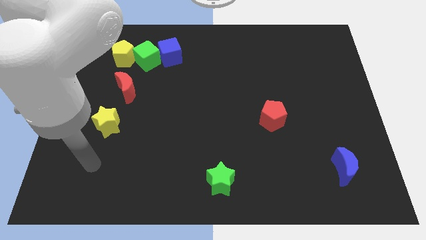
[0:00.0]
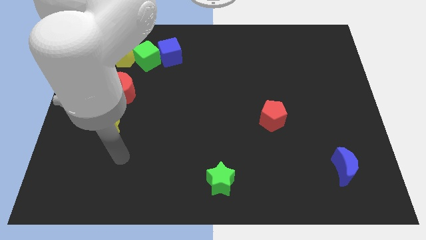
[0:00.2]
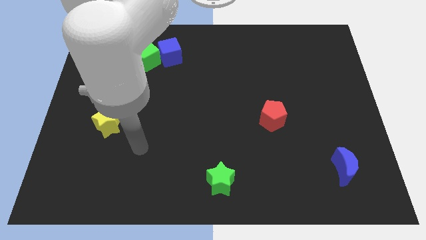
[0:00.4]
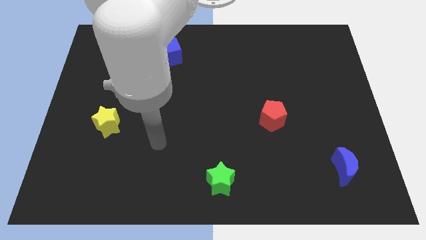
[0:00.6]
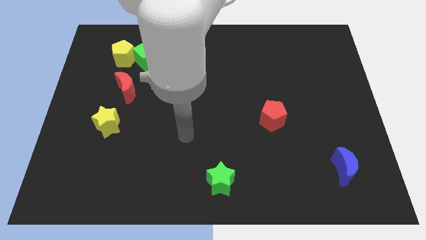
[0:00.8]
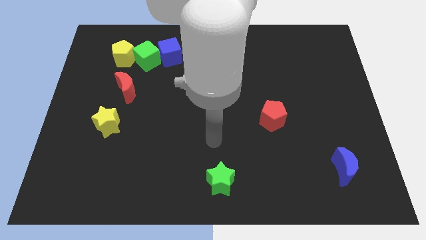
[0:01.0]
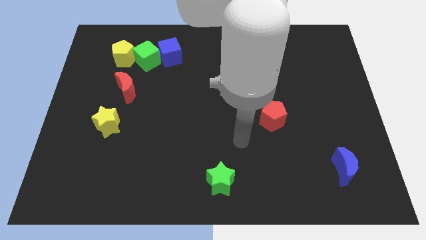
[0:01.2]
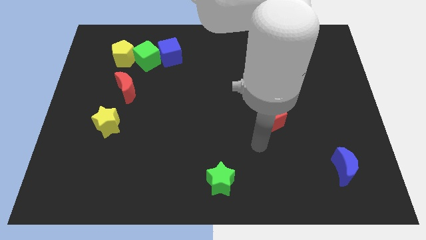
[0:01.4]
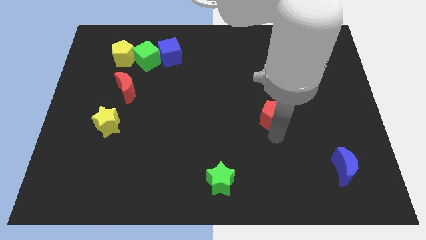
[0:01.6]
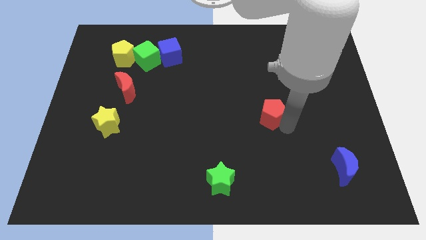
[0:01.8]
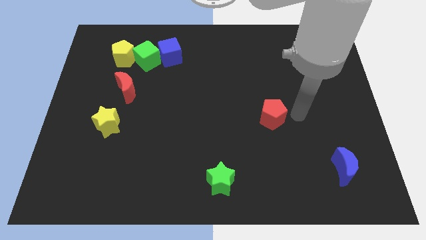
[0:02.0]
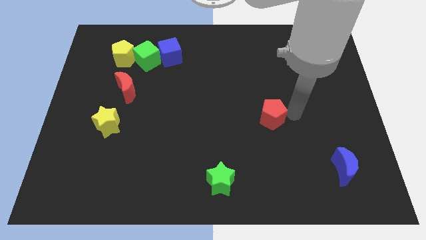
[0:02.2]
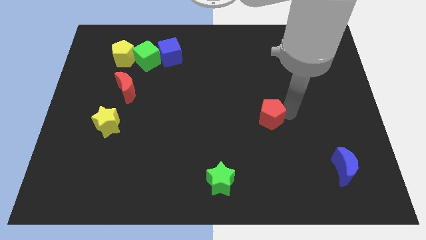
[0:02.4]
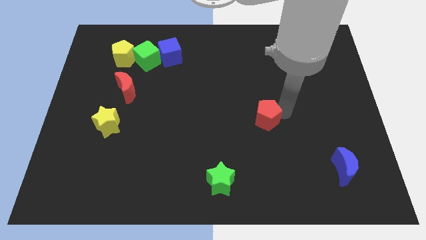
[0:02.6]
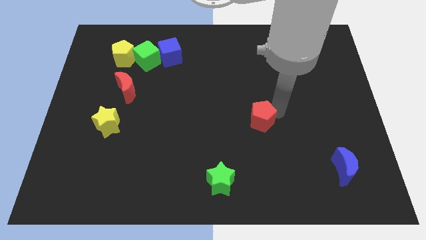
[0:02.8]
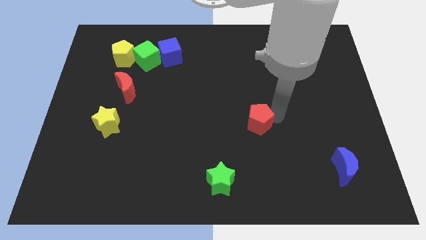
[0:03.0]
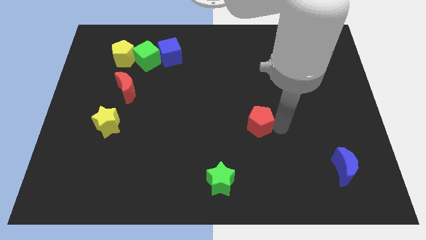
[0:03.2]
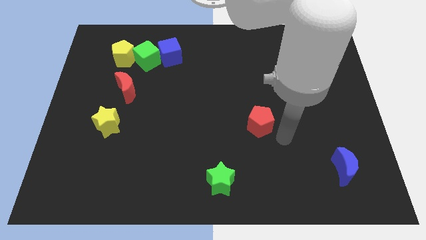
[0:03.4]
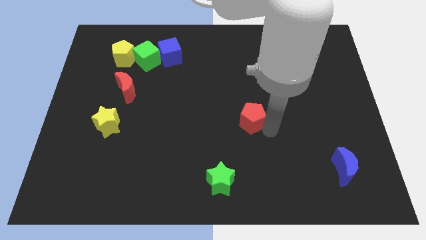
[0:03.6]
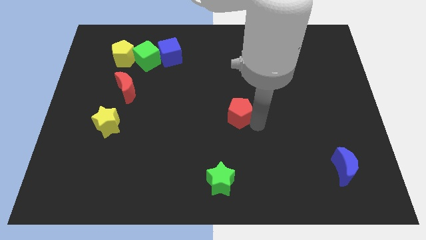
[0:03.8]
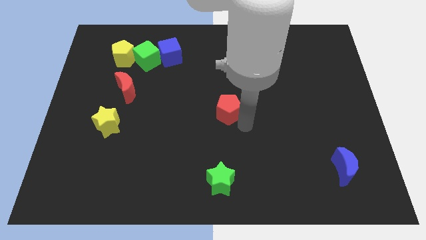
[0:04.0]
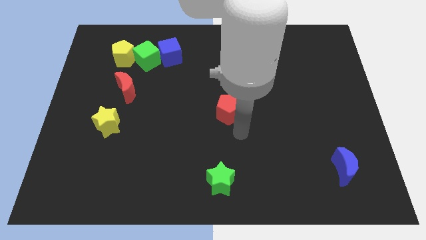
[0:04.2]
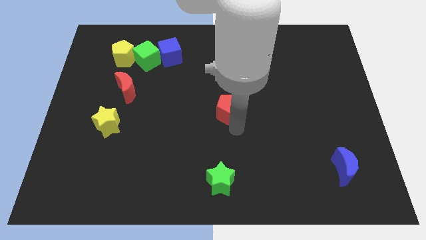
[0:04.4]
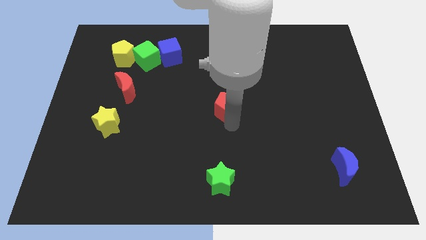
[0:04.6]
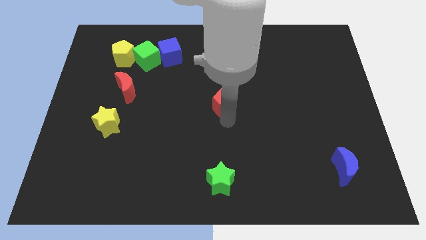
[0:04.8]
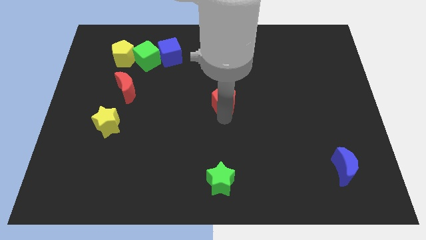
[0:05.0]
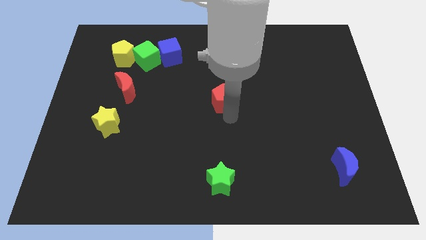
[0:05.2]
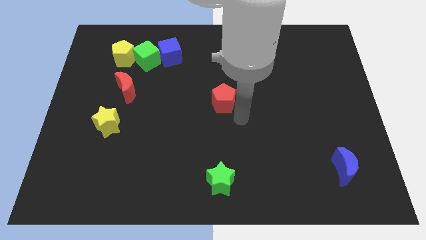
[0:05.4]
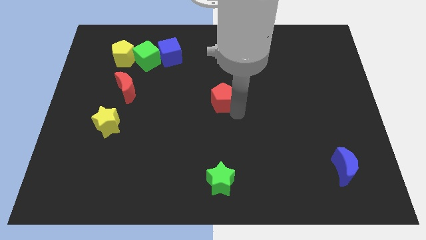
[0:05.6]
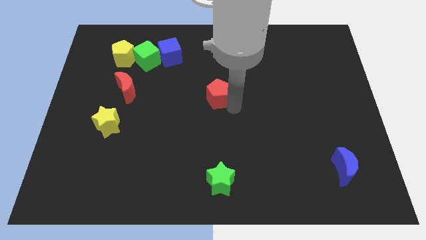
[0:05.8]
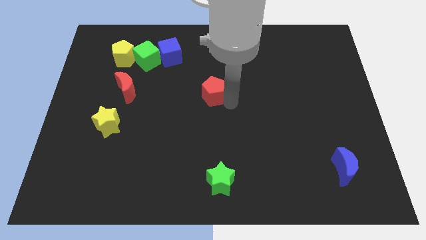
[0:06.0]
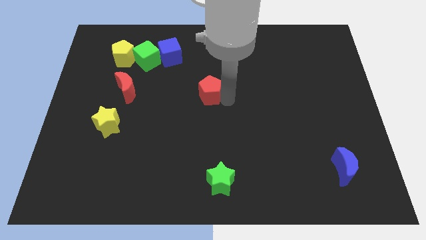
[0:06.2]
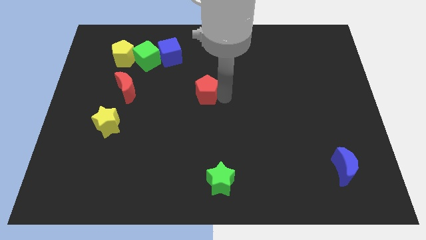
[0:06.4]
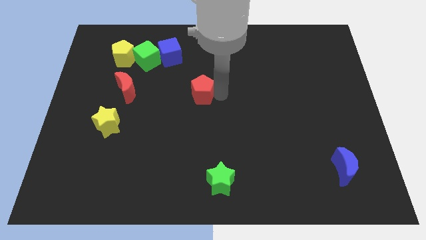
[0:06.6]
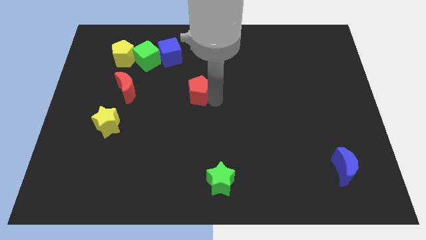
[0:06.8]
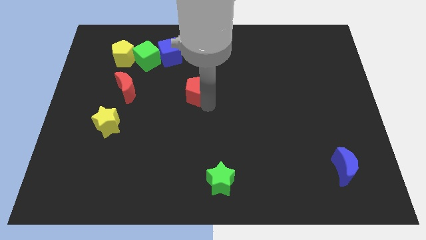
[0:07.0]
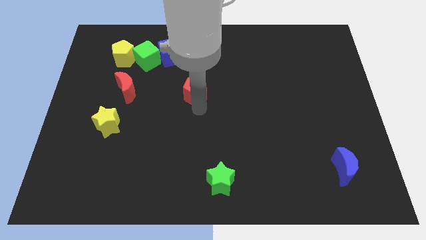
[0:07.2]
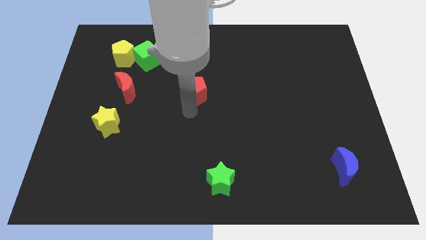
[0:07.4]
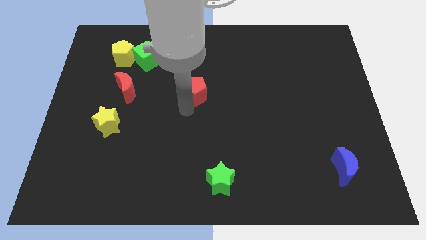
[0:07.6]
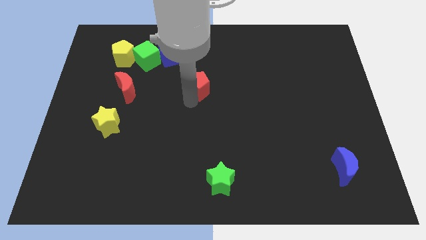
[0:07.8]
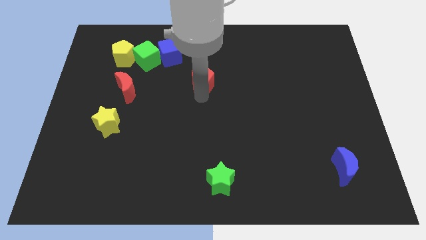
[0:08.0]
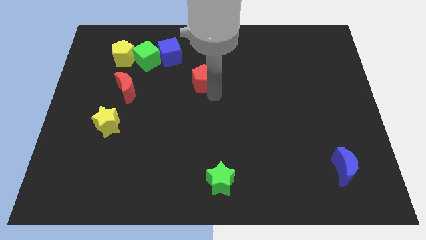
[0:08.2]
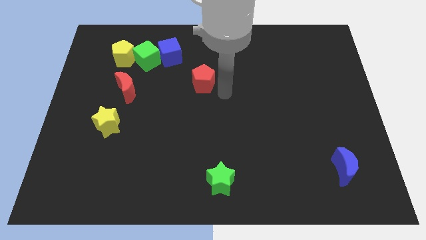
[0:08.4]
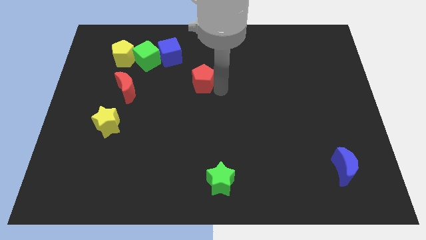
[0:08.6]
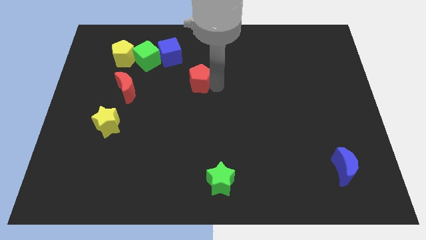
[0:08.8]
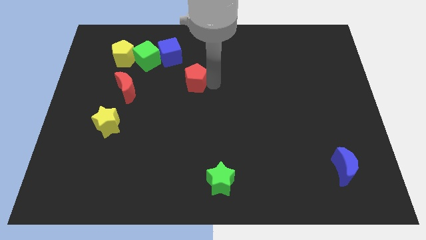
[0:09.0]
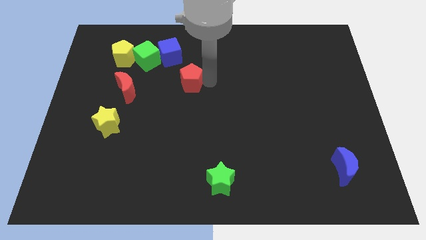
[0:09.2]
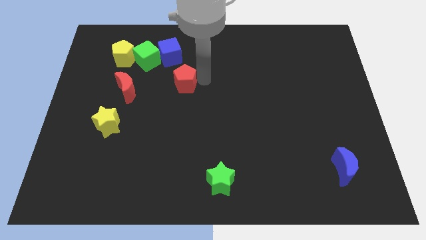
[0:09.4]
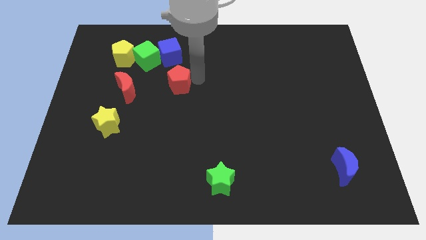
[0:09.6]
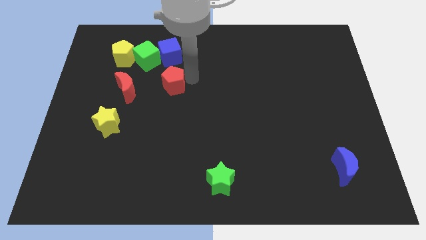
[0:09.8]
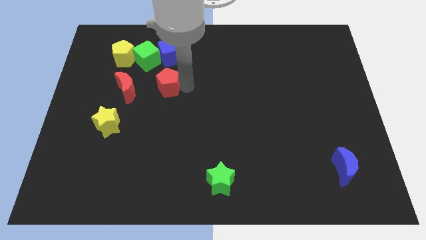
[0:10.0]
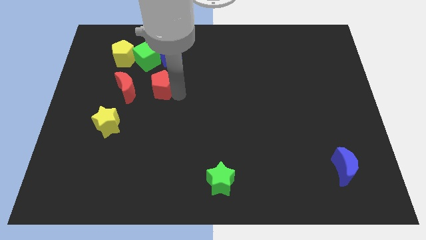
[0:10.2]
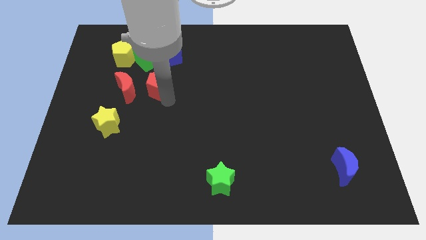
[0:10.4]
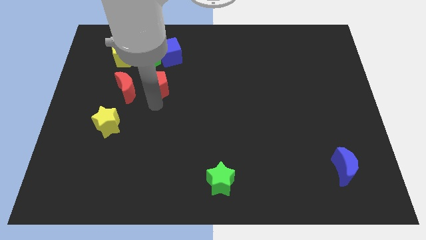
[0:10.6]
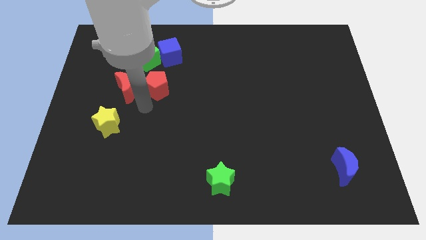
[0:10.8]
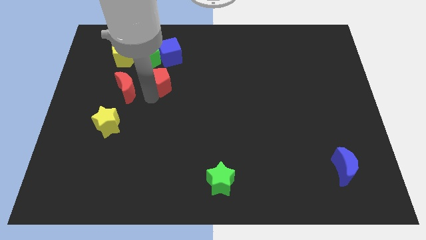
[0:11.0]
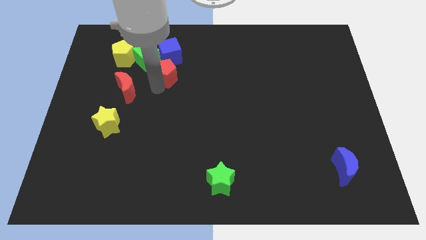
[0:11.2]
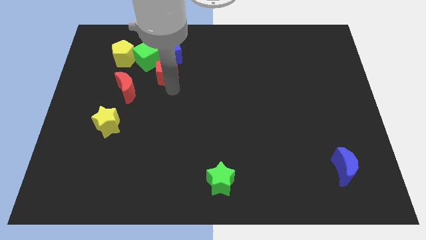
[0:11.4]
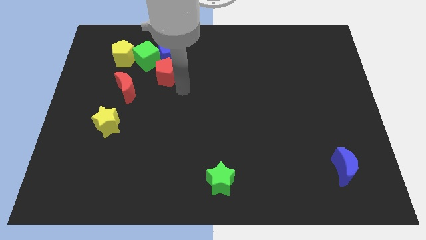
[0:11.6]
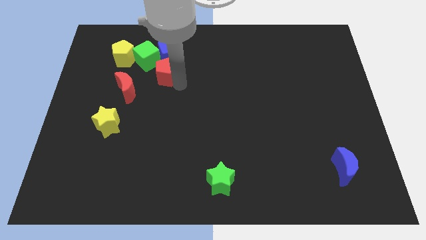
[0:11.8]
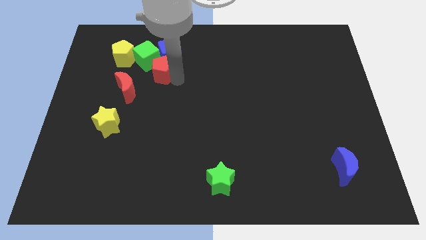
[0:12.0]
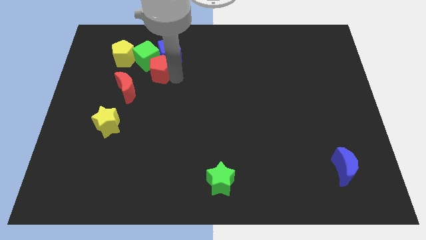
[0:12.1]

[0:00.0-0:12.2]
push the red pentagon close to the green cube

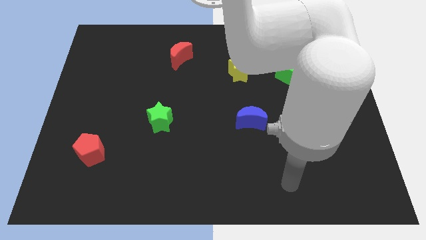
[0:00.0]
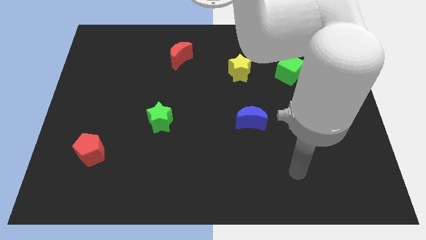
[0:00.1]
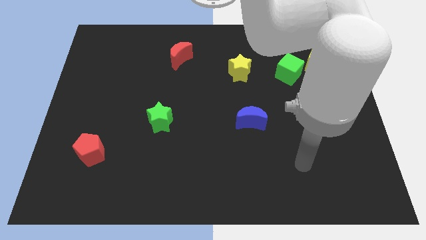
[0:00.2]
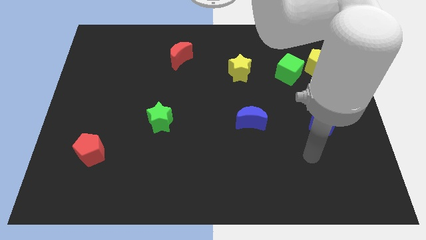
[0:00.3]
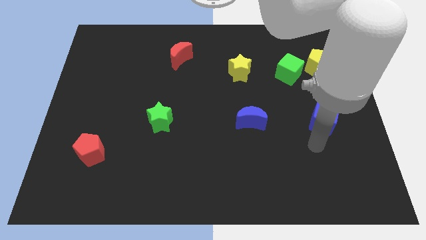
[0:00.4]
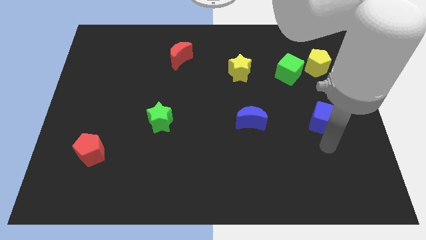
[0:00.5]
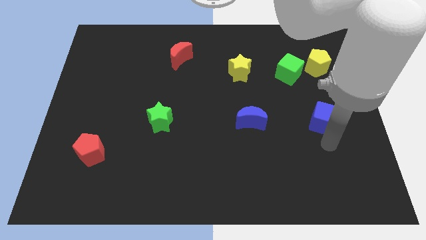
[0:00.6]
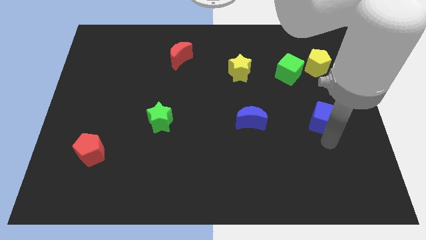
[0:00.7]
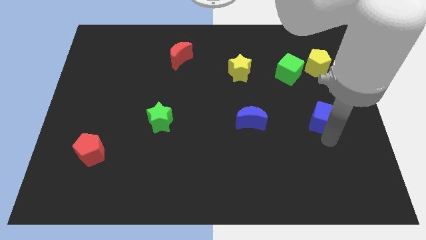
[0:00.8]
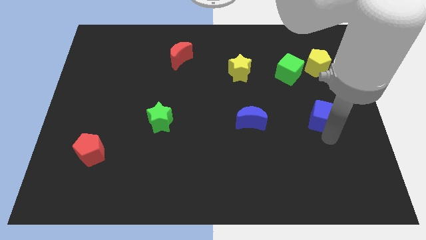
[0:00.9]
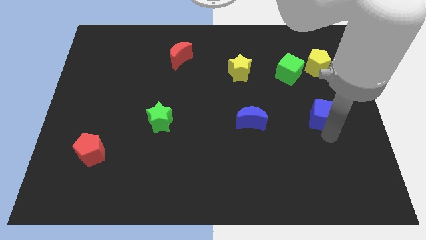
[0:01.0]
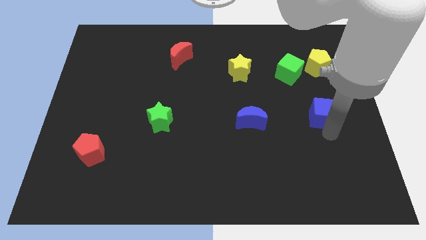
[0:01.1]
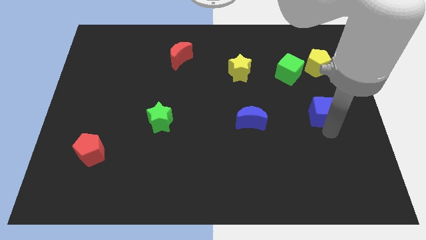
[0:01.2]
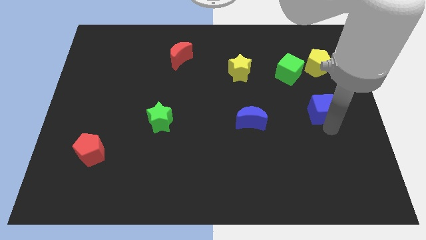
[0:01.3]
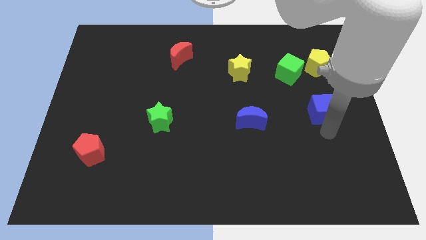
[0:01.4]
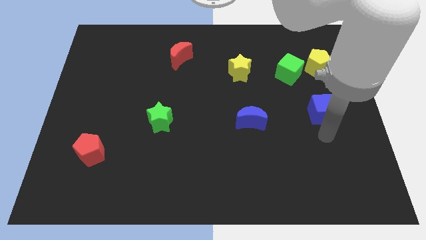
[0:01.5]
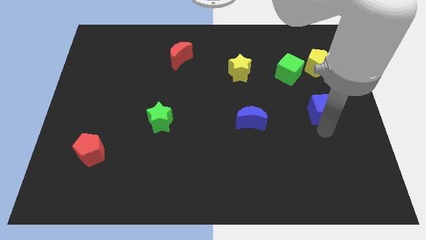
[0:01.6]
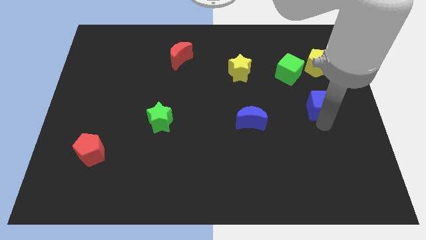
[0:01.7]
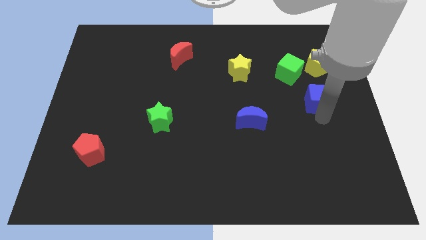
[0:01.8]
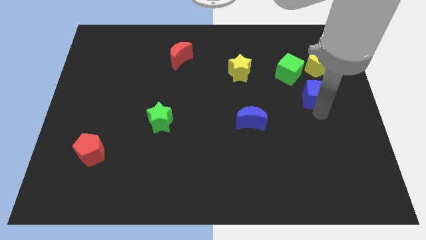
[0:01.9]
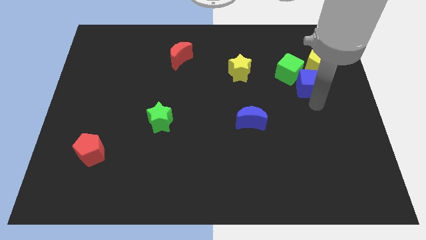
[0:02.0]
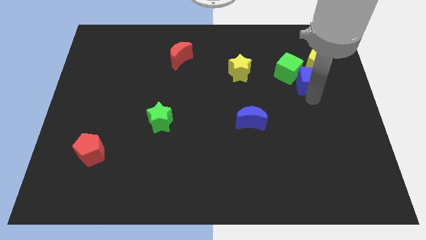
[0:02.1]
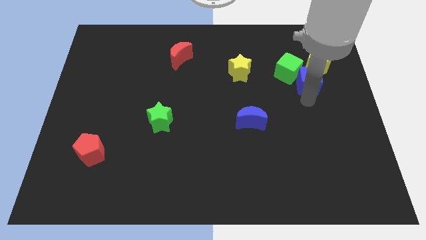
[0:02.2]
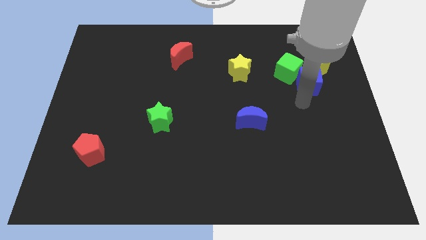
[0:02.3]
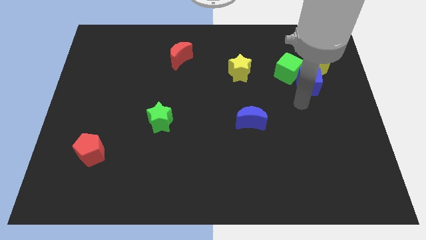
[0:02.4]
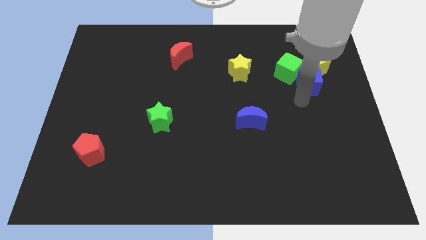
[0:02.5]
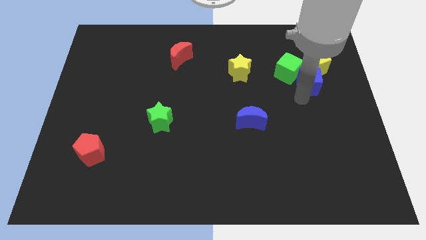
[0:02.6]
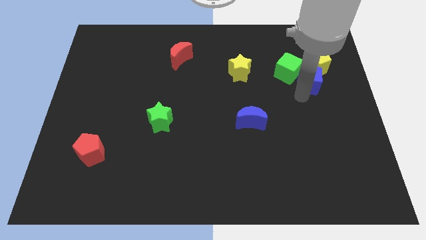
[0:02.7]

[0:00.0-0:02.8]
push the blue cube towards the yellow pentagon
